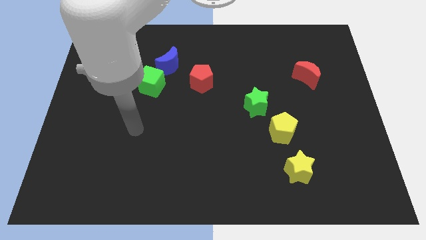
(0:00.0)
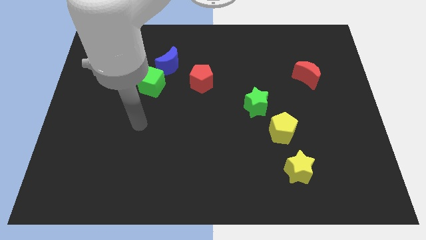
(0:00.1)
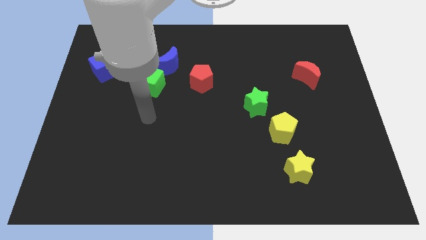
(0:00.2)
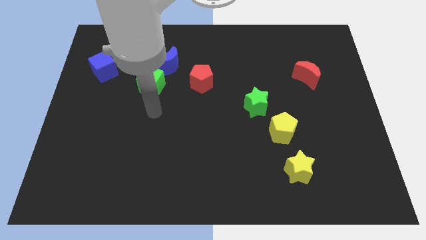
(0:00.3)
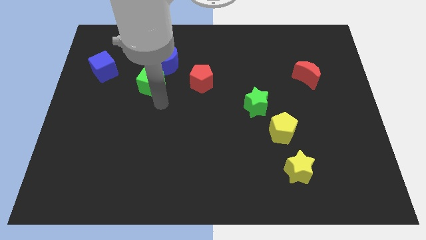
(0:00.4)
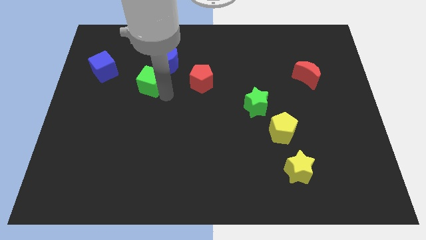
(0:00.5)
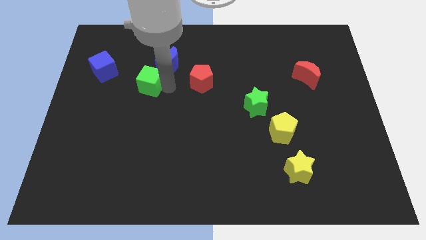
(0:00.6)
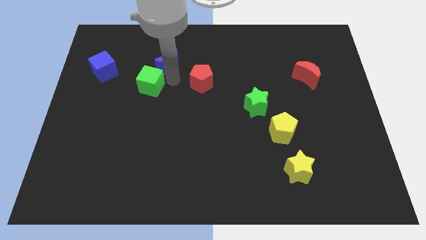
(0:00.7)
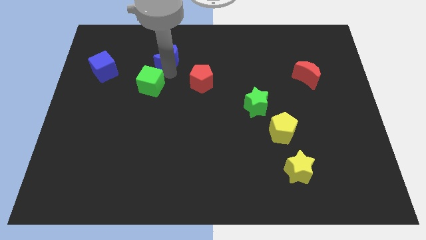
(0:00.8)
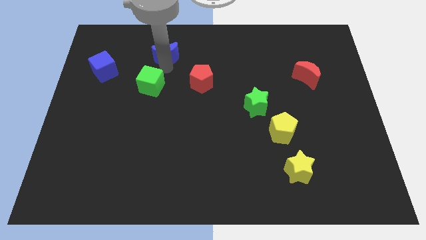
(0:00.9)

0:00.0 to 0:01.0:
pull the green cube apart from the blue moon

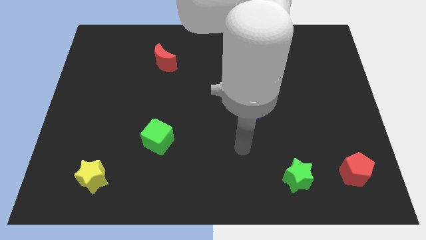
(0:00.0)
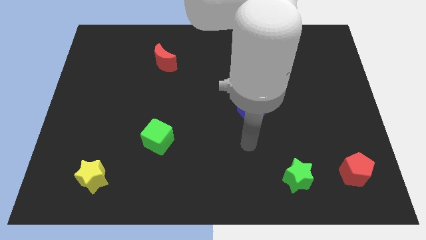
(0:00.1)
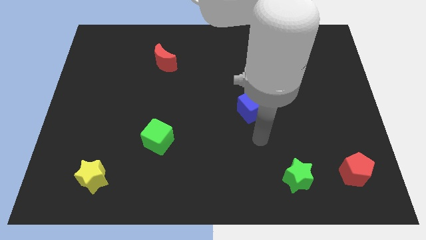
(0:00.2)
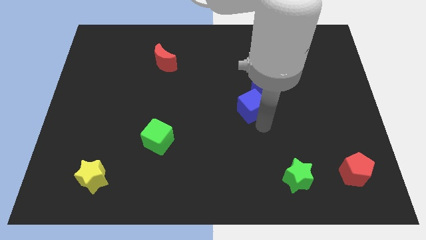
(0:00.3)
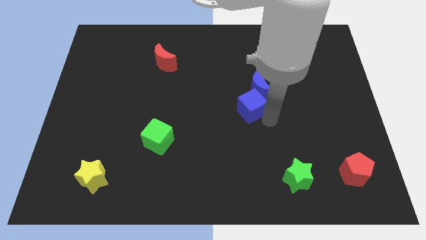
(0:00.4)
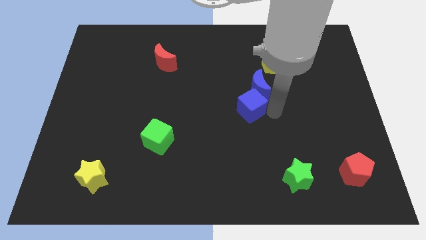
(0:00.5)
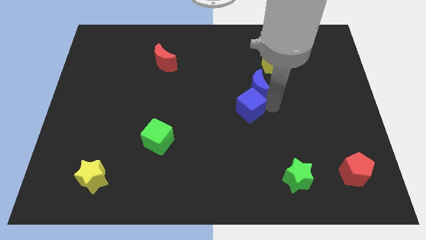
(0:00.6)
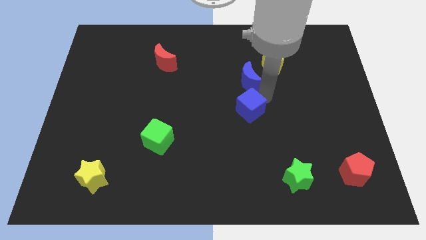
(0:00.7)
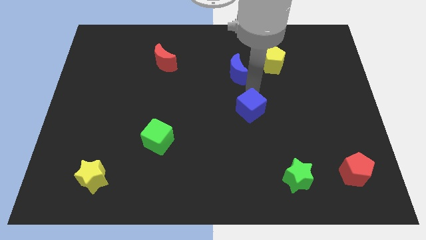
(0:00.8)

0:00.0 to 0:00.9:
move the blue cube away from the blue moon

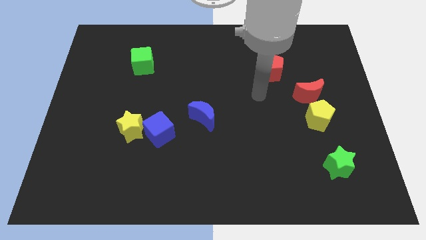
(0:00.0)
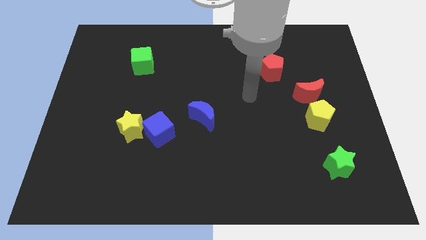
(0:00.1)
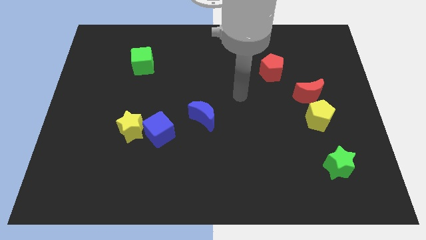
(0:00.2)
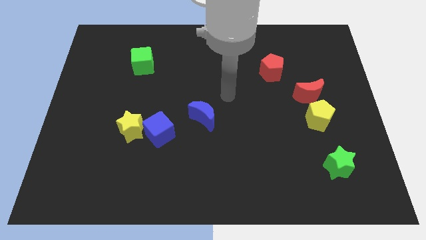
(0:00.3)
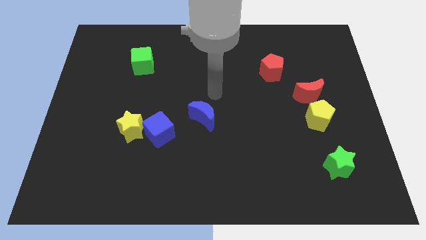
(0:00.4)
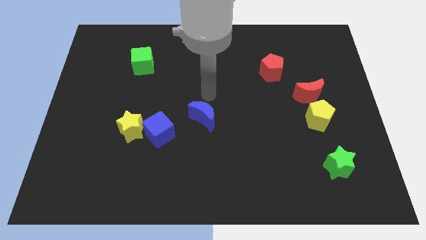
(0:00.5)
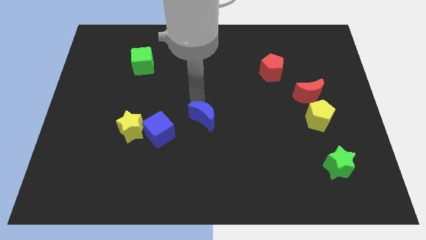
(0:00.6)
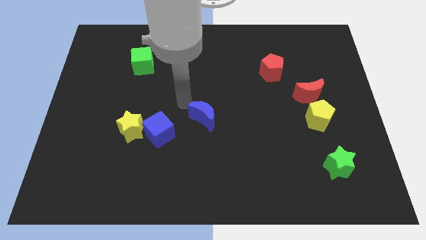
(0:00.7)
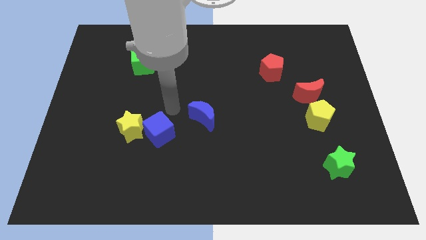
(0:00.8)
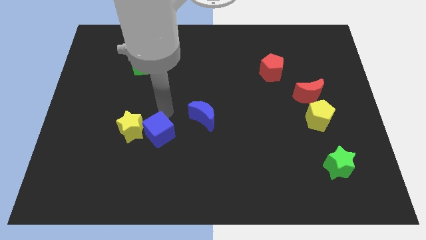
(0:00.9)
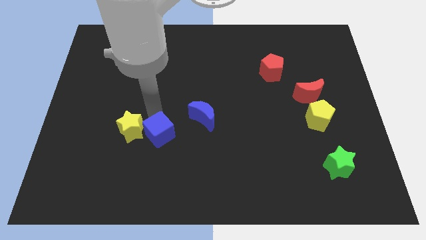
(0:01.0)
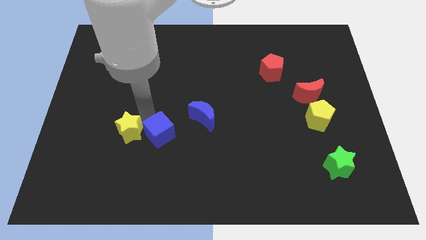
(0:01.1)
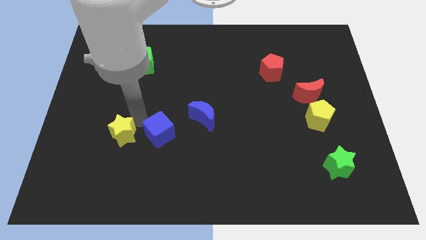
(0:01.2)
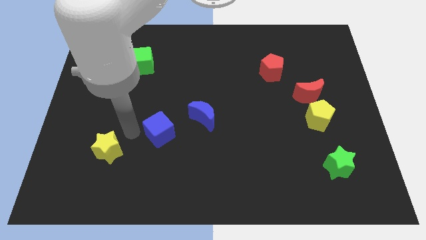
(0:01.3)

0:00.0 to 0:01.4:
separate the blue cube from the yellow star

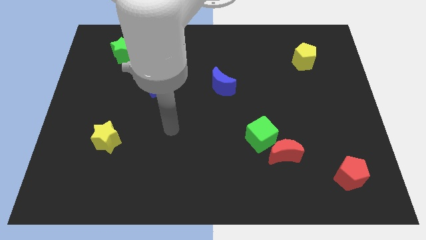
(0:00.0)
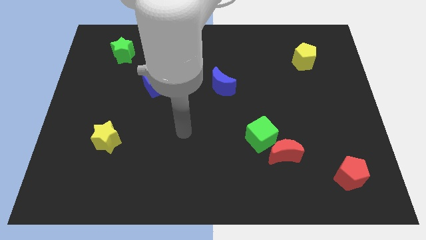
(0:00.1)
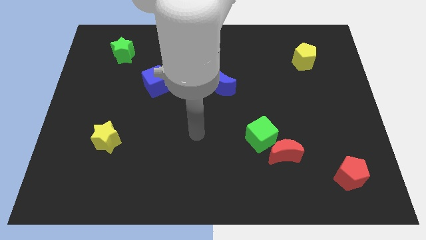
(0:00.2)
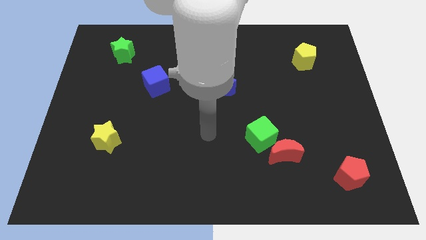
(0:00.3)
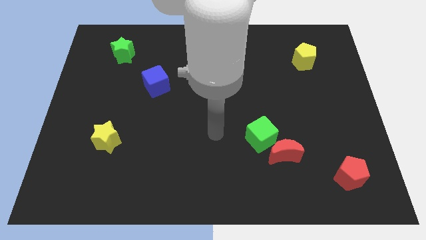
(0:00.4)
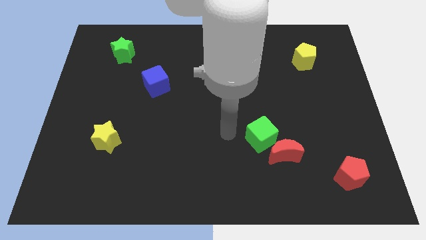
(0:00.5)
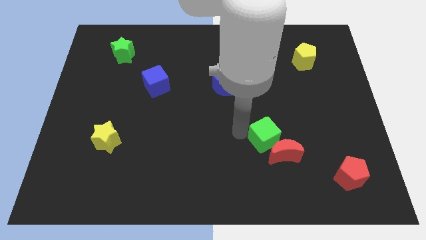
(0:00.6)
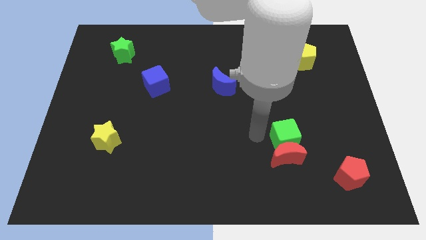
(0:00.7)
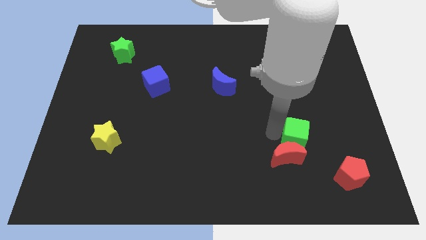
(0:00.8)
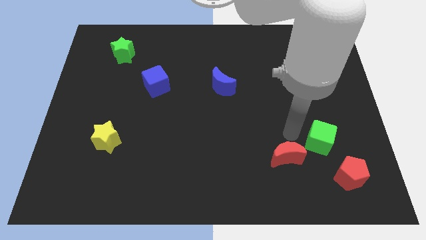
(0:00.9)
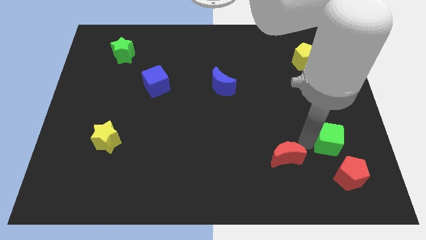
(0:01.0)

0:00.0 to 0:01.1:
separate the red moon from the green cube

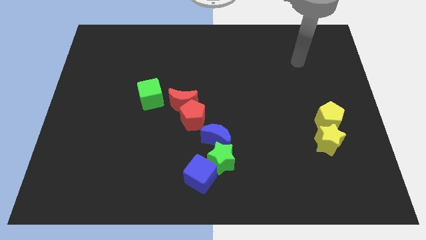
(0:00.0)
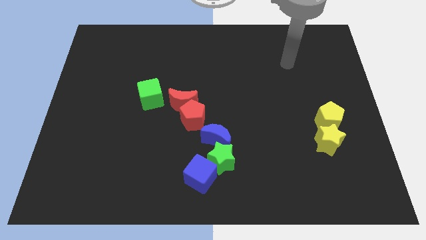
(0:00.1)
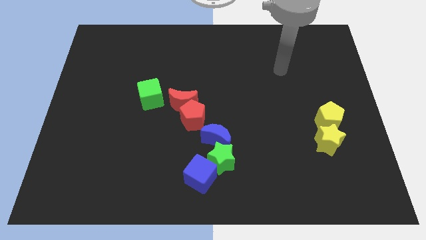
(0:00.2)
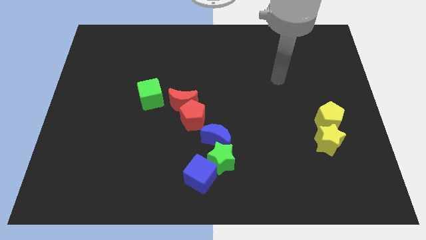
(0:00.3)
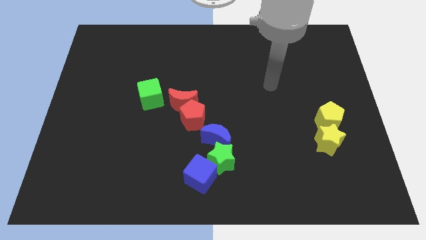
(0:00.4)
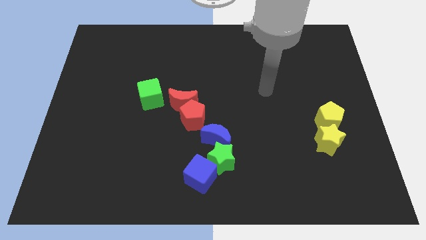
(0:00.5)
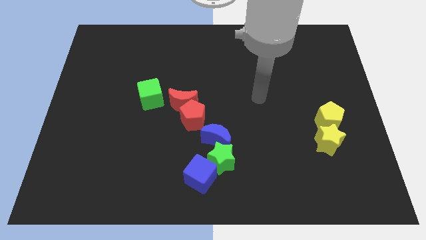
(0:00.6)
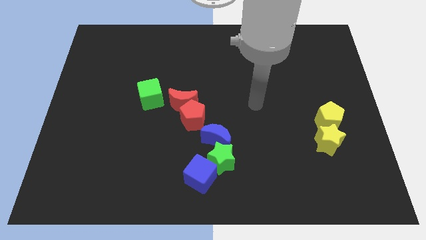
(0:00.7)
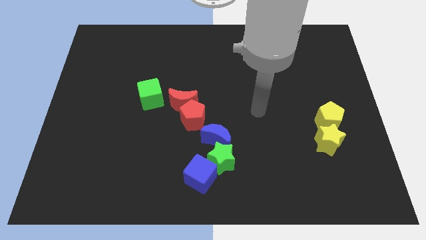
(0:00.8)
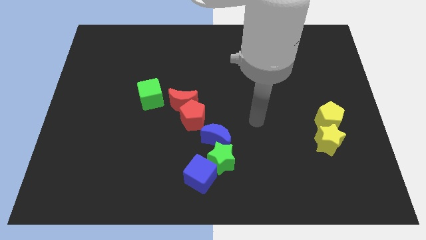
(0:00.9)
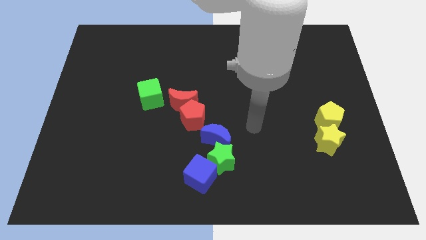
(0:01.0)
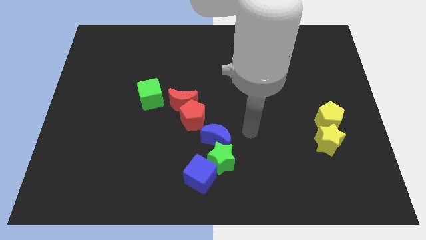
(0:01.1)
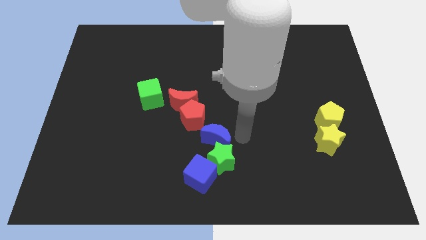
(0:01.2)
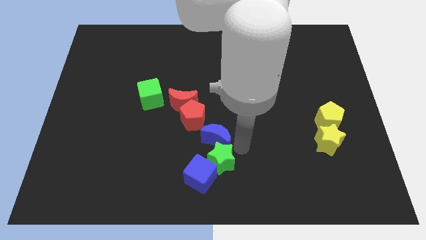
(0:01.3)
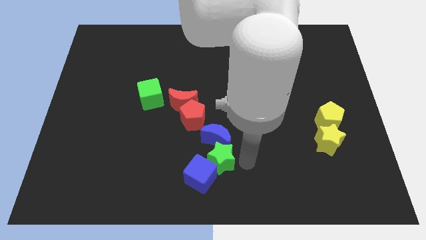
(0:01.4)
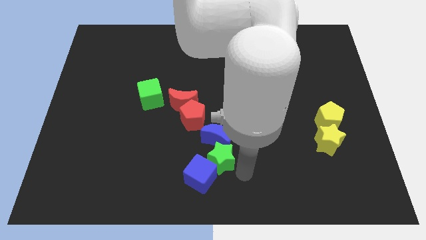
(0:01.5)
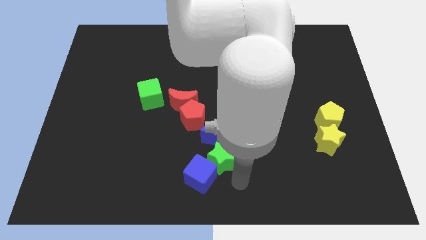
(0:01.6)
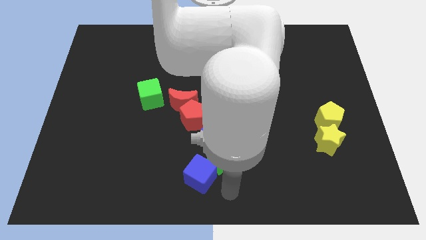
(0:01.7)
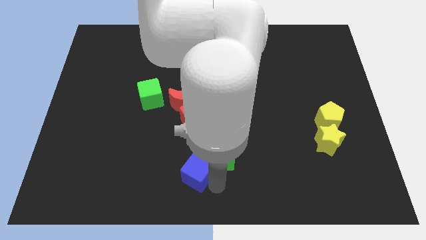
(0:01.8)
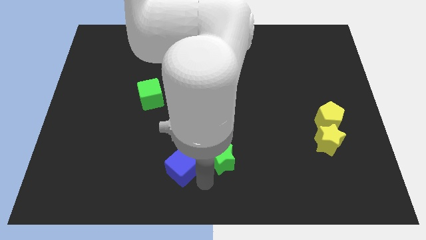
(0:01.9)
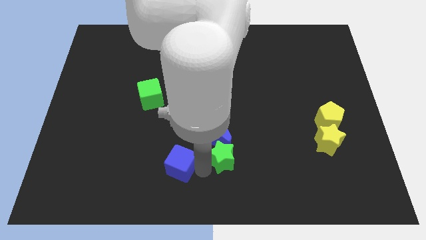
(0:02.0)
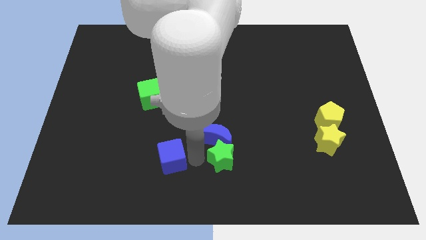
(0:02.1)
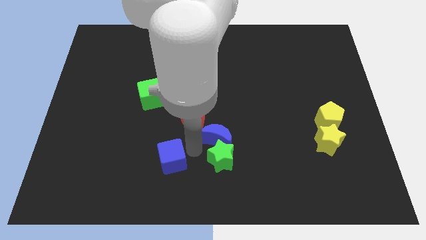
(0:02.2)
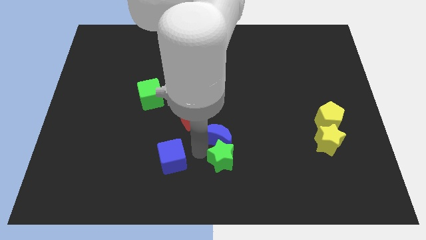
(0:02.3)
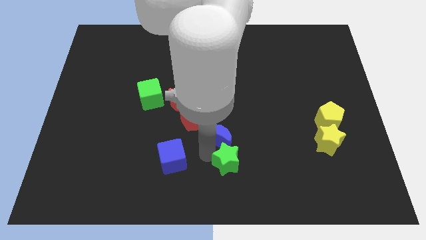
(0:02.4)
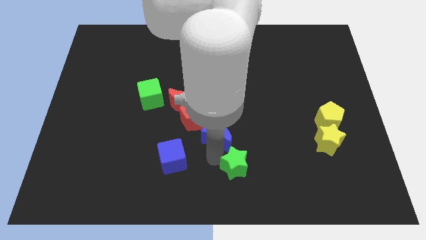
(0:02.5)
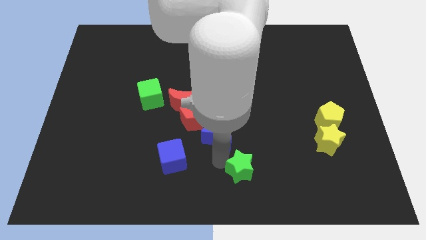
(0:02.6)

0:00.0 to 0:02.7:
move the green star away from the blue cube and blue moon

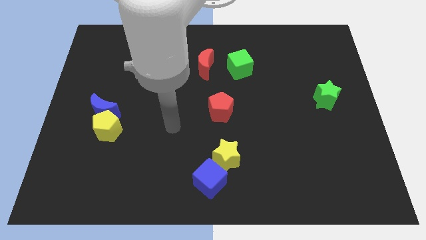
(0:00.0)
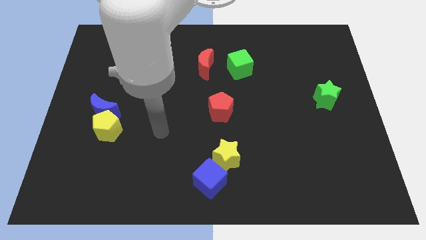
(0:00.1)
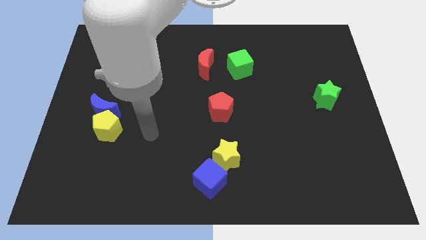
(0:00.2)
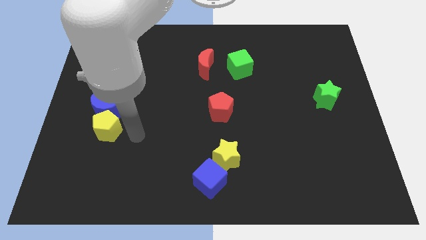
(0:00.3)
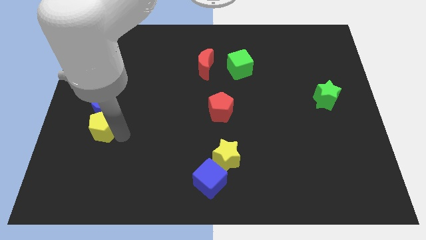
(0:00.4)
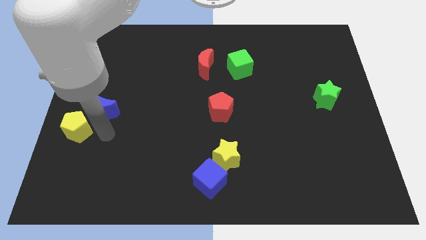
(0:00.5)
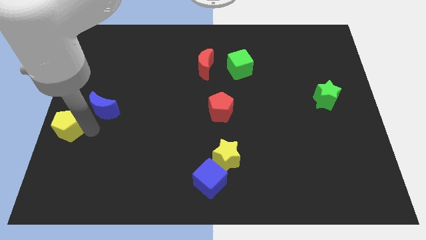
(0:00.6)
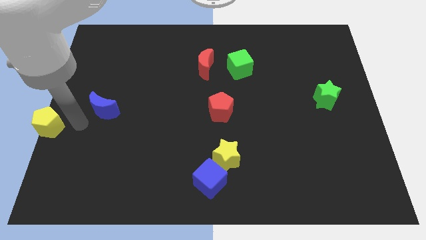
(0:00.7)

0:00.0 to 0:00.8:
move the blue moon away from the yellow pentagon

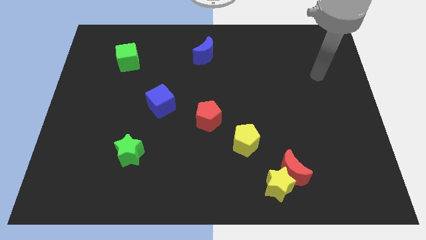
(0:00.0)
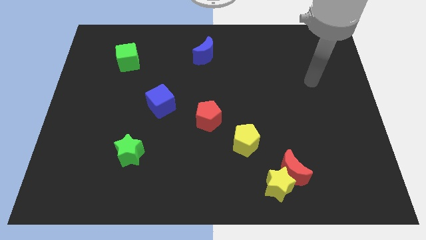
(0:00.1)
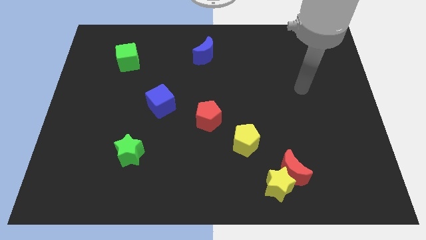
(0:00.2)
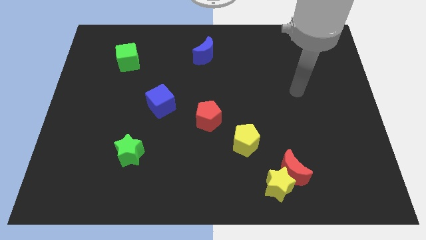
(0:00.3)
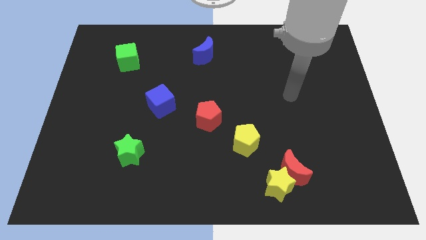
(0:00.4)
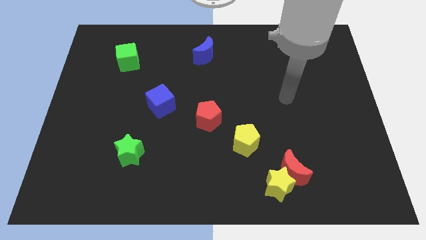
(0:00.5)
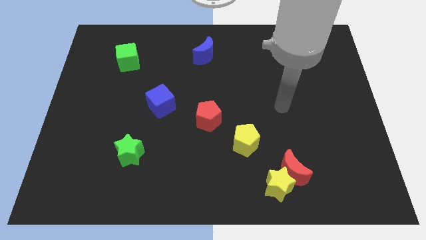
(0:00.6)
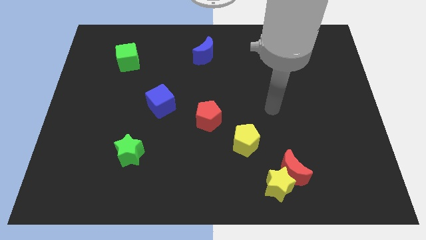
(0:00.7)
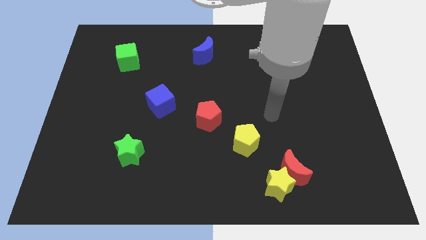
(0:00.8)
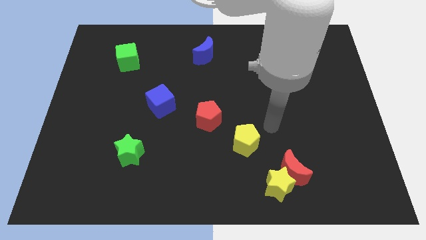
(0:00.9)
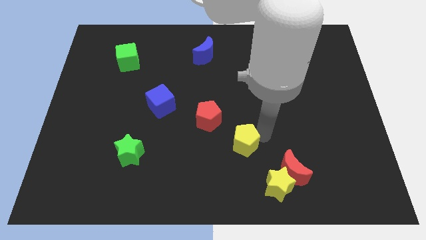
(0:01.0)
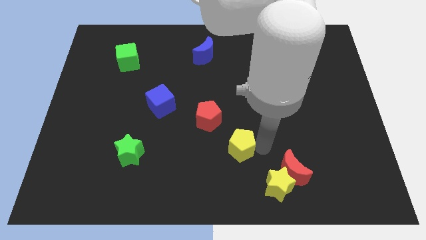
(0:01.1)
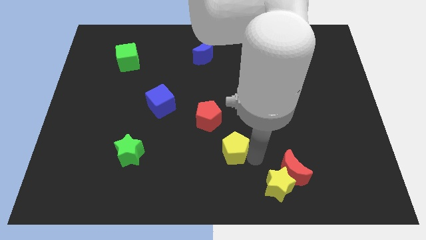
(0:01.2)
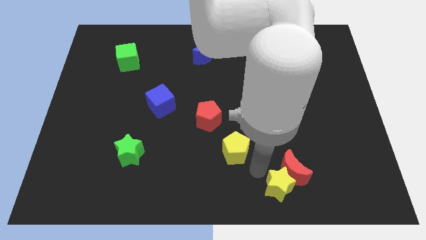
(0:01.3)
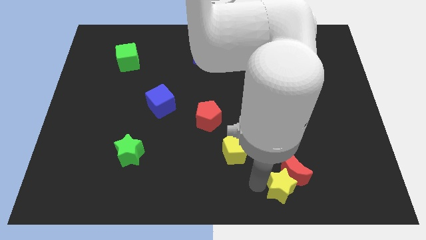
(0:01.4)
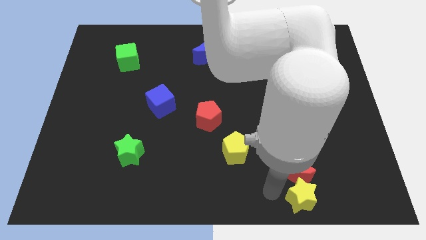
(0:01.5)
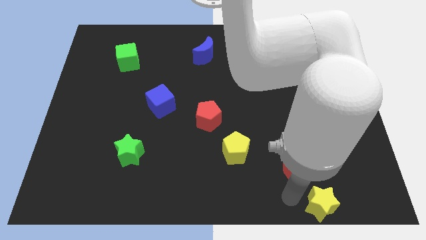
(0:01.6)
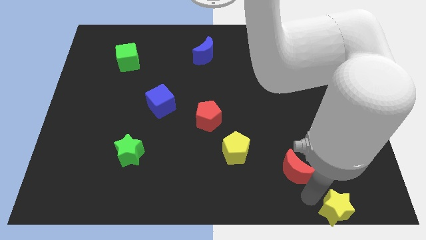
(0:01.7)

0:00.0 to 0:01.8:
move the red moon away from the yellow star
